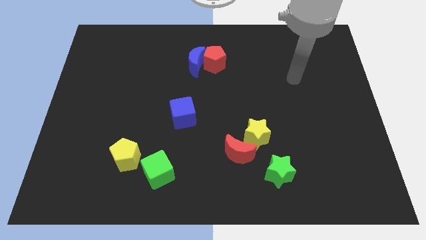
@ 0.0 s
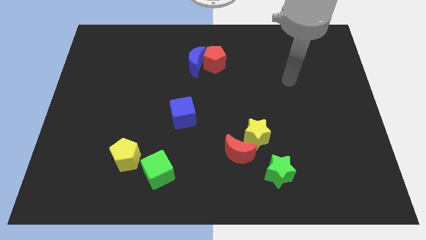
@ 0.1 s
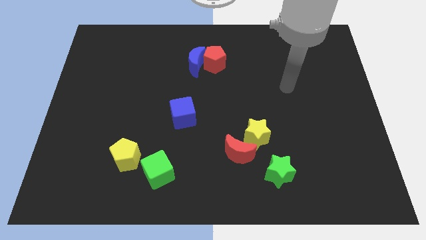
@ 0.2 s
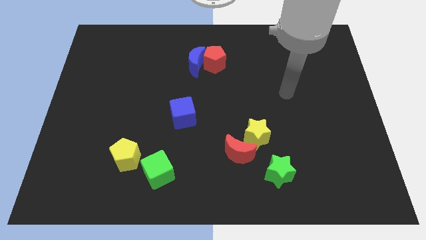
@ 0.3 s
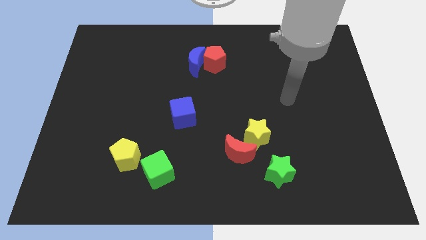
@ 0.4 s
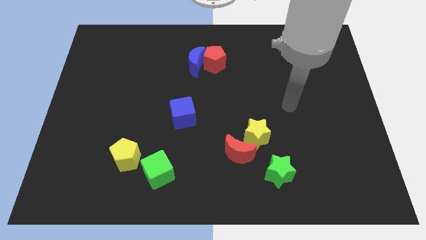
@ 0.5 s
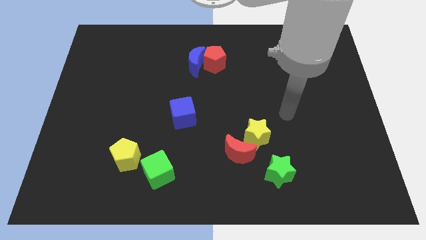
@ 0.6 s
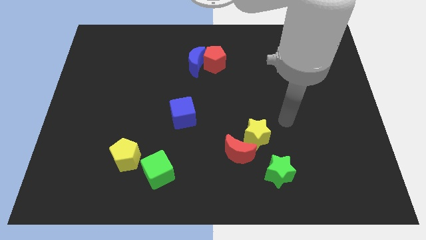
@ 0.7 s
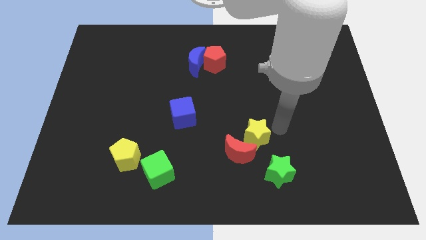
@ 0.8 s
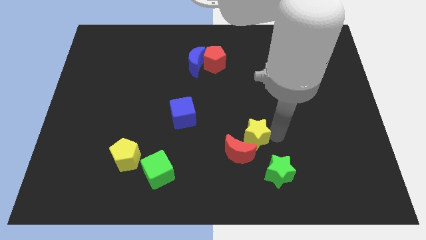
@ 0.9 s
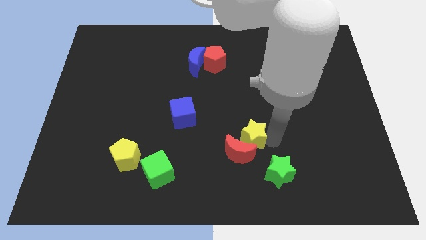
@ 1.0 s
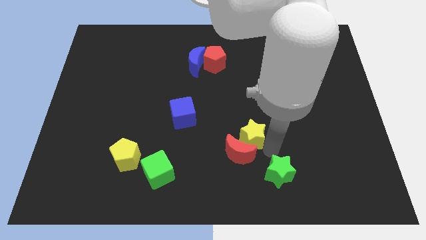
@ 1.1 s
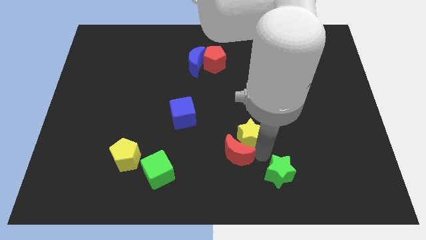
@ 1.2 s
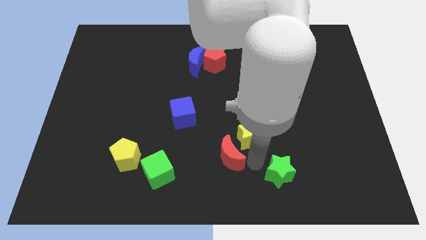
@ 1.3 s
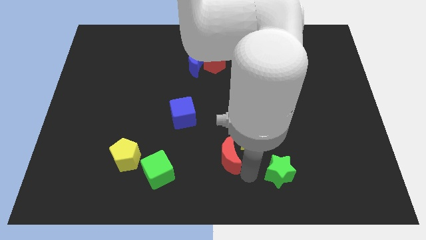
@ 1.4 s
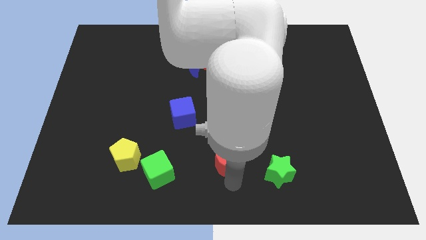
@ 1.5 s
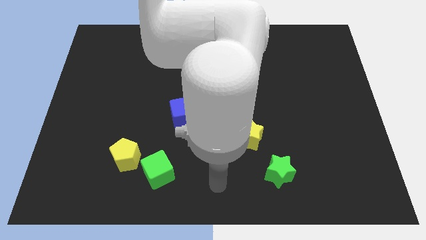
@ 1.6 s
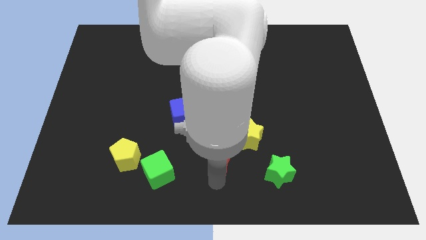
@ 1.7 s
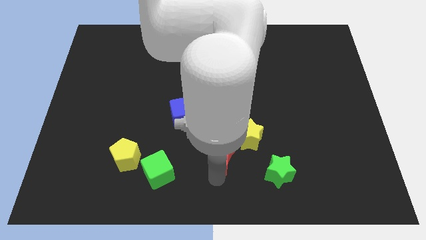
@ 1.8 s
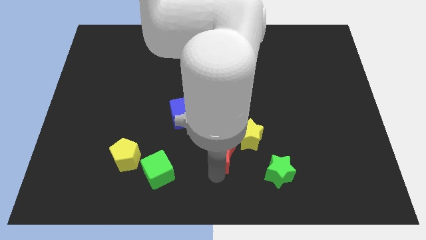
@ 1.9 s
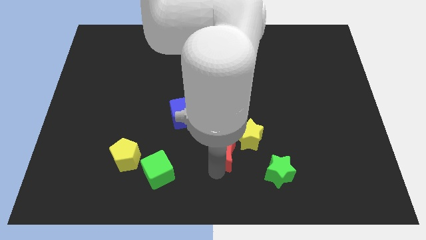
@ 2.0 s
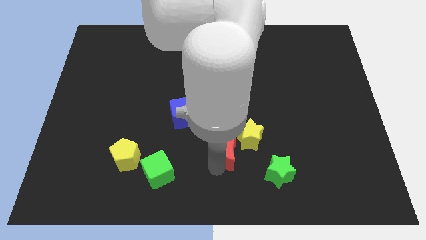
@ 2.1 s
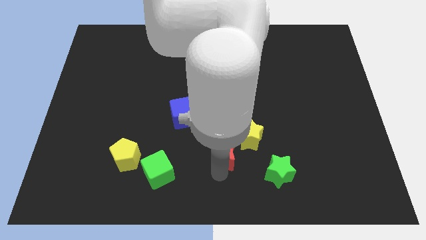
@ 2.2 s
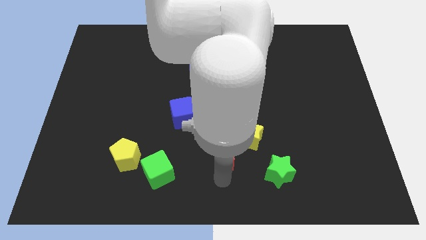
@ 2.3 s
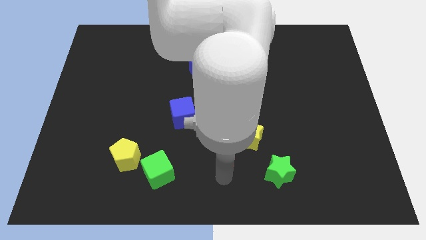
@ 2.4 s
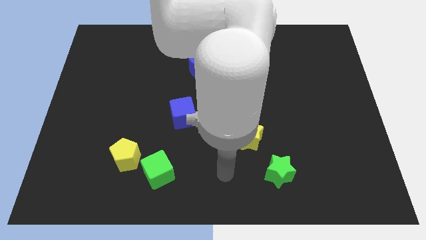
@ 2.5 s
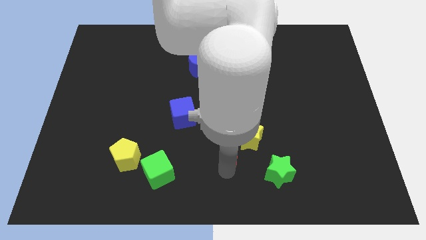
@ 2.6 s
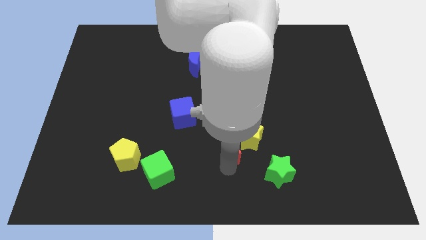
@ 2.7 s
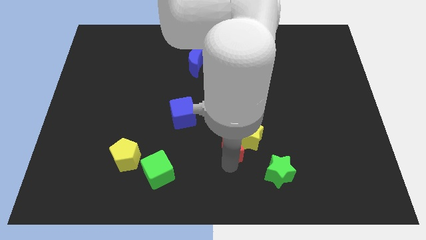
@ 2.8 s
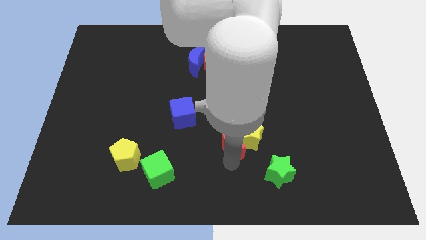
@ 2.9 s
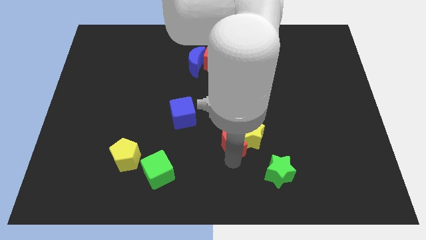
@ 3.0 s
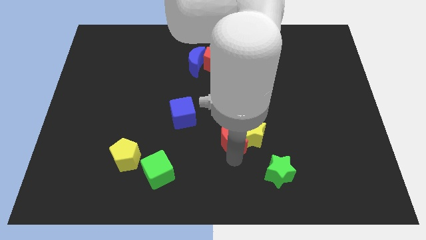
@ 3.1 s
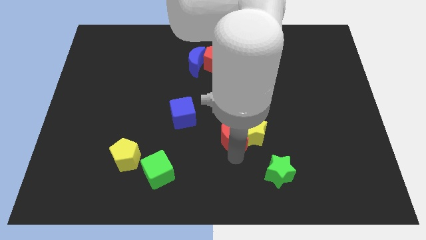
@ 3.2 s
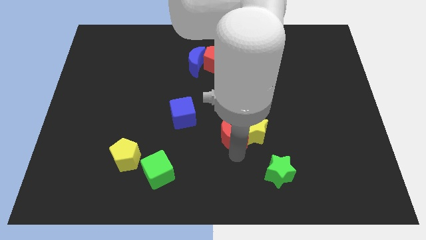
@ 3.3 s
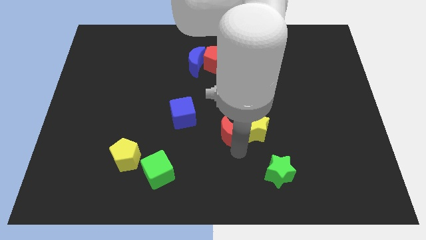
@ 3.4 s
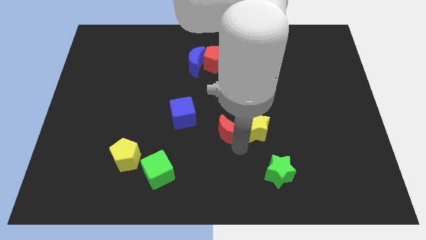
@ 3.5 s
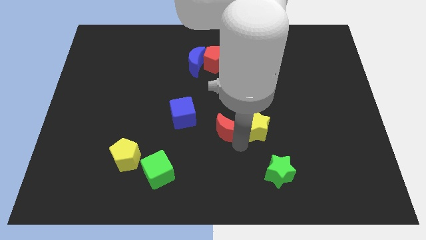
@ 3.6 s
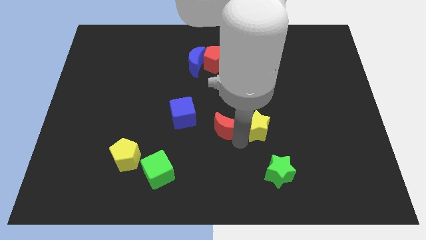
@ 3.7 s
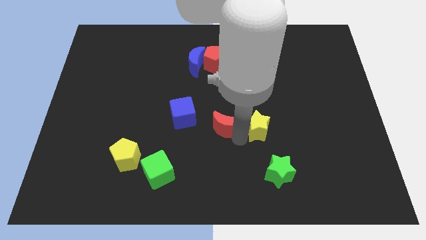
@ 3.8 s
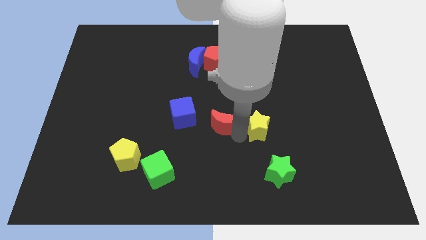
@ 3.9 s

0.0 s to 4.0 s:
push the red moon slightly upwards and left diagonally

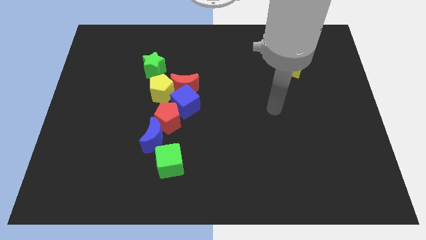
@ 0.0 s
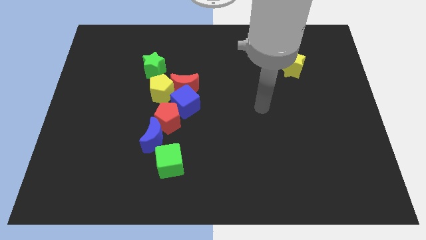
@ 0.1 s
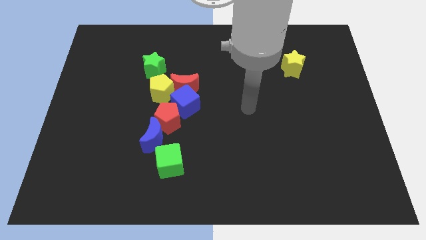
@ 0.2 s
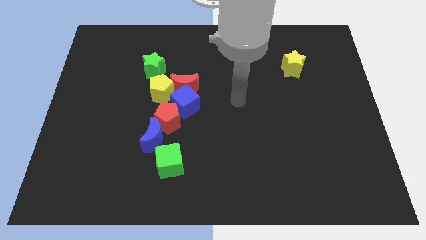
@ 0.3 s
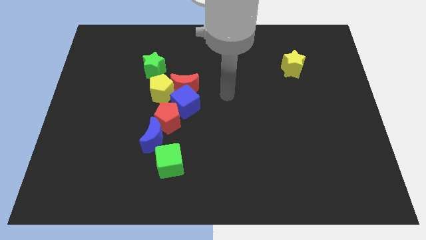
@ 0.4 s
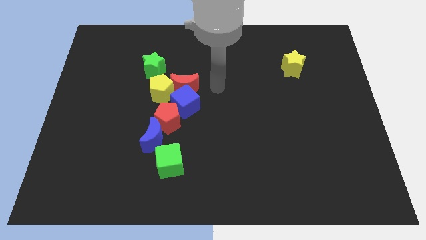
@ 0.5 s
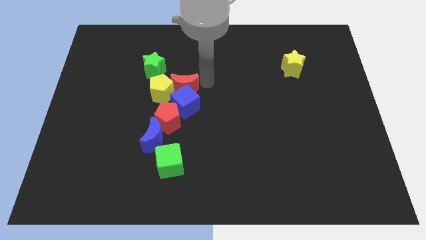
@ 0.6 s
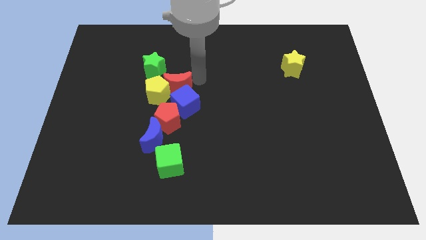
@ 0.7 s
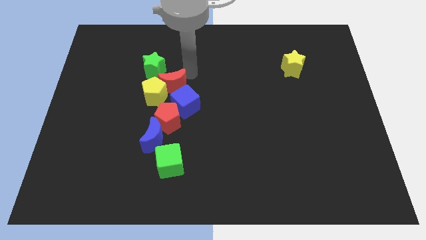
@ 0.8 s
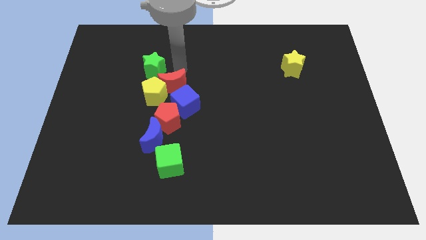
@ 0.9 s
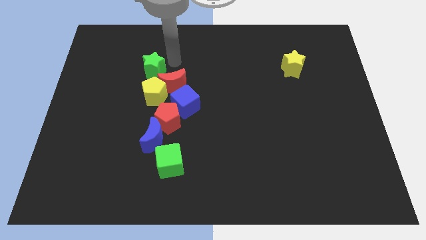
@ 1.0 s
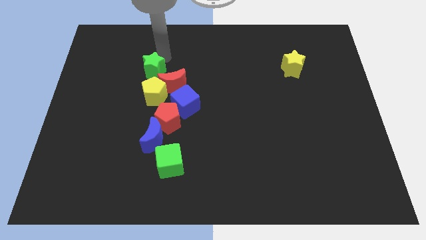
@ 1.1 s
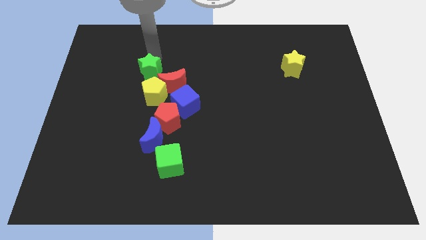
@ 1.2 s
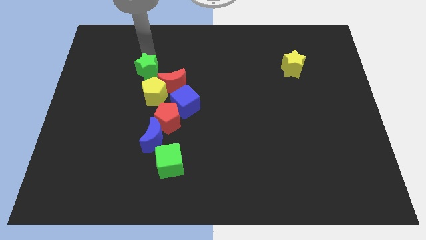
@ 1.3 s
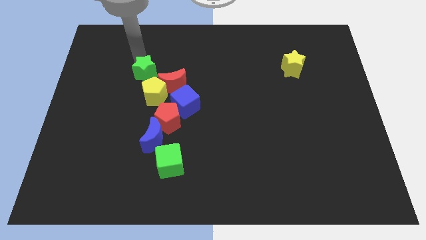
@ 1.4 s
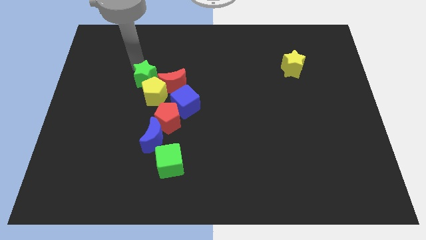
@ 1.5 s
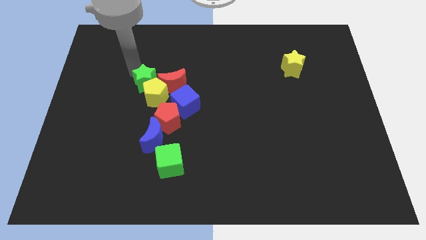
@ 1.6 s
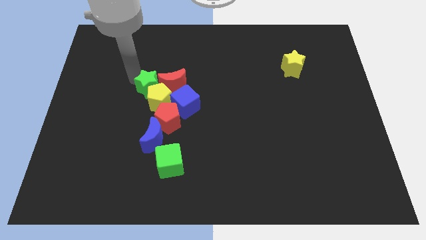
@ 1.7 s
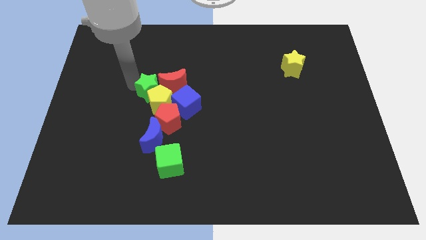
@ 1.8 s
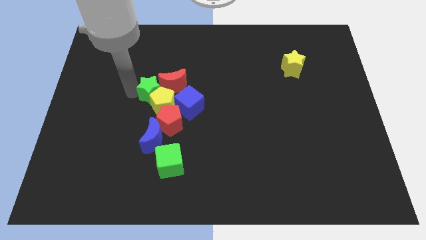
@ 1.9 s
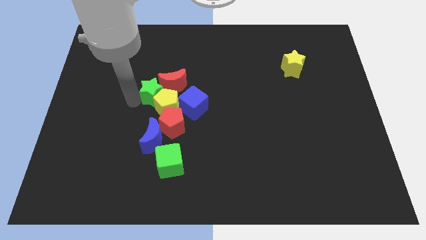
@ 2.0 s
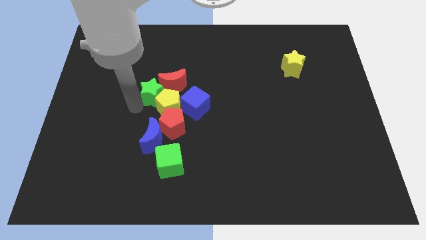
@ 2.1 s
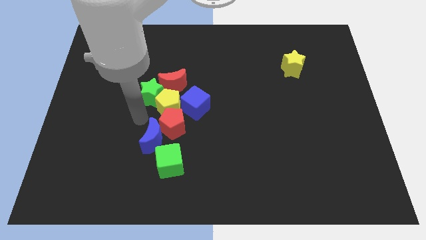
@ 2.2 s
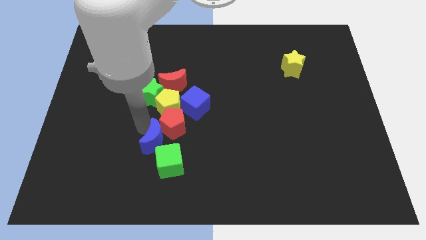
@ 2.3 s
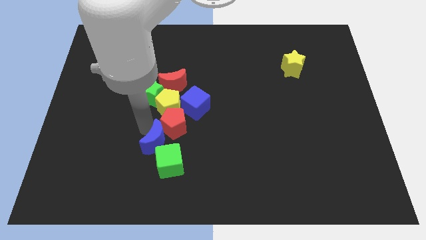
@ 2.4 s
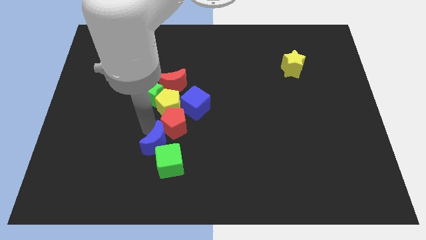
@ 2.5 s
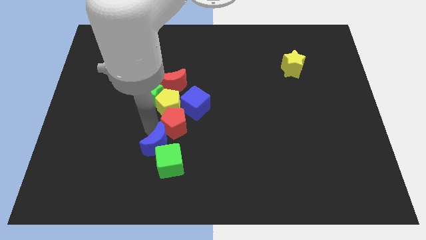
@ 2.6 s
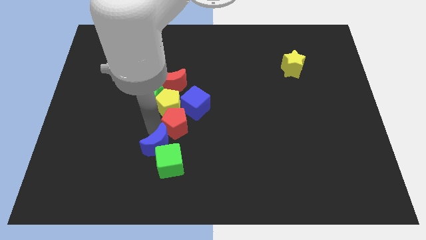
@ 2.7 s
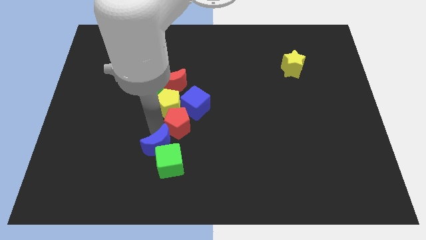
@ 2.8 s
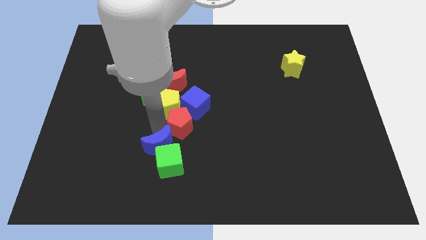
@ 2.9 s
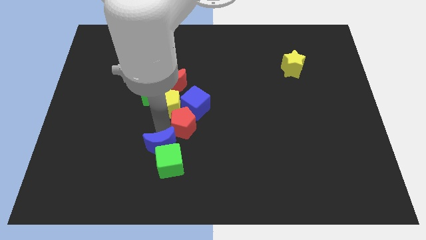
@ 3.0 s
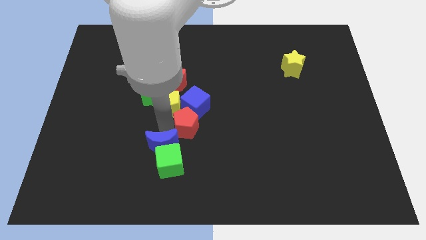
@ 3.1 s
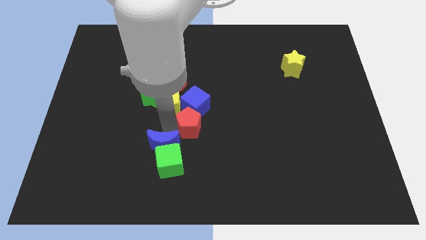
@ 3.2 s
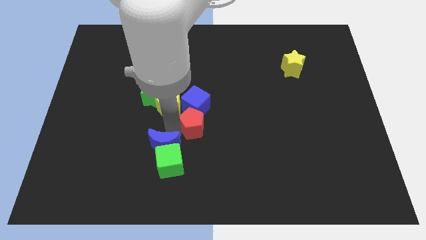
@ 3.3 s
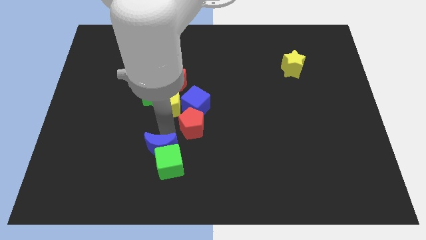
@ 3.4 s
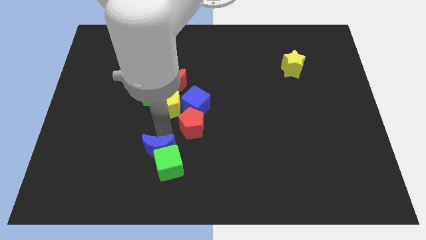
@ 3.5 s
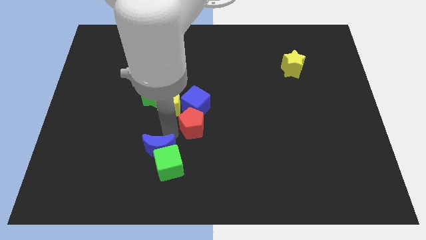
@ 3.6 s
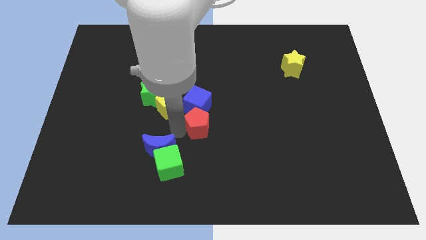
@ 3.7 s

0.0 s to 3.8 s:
move the red pentagon to the right somewhat

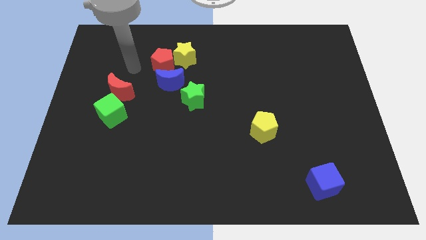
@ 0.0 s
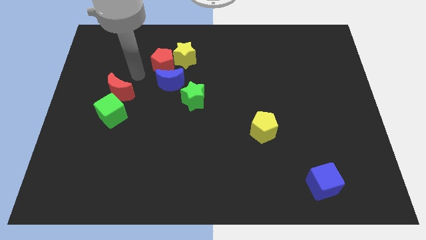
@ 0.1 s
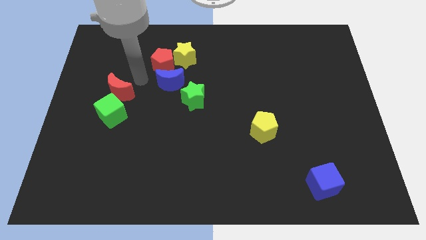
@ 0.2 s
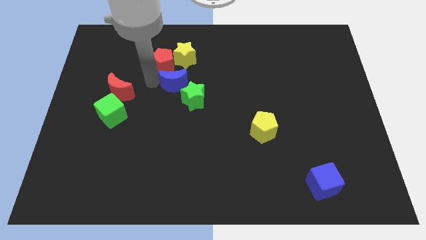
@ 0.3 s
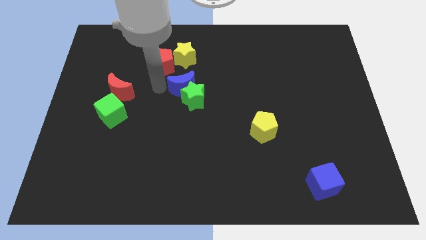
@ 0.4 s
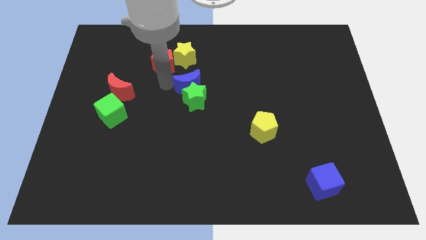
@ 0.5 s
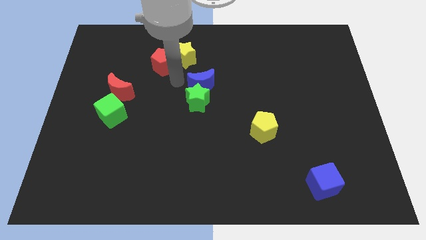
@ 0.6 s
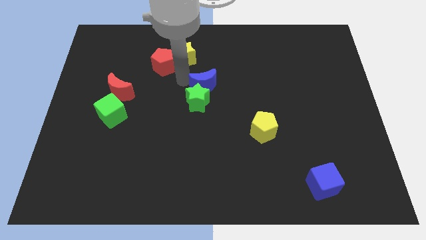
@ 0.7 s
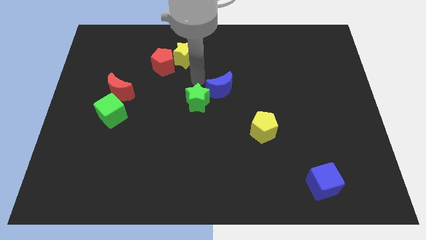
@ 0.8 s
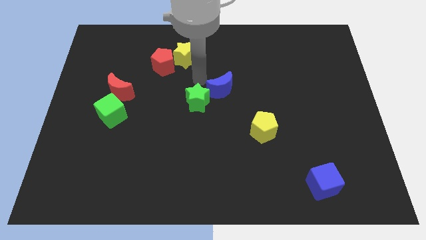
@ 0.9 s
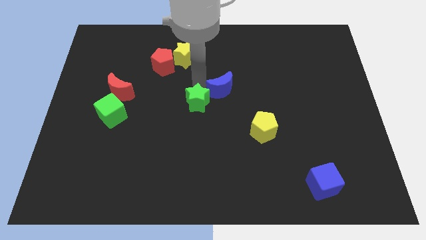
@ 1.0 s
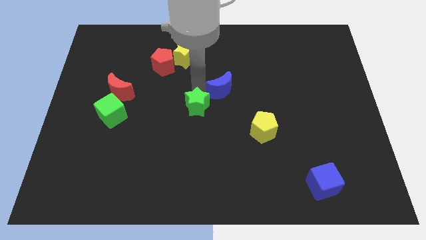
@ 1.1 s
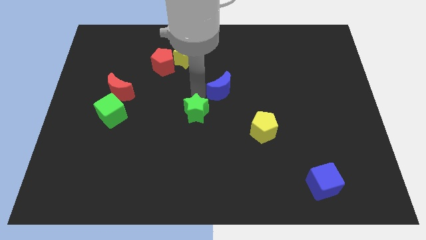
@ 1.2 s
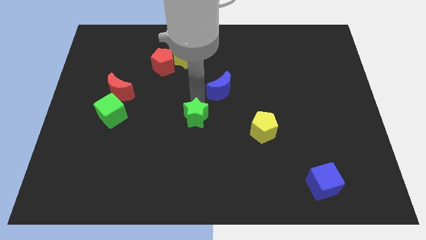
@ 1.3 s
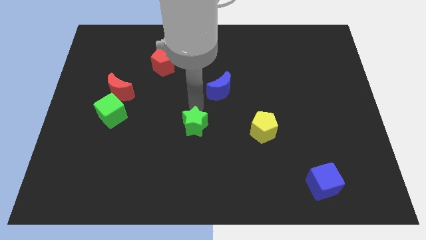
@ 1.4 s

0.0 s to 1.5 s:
push the green star downwards somewhat
